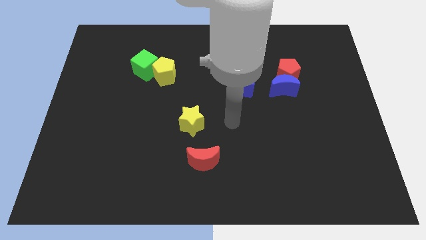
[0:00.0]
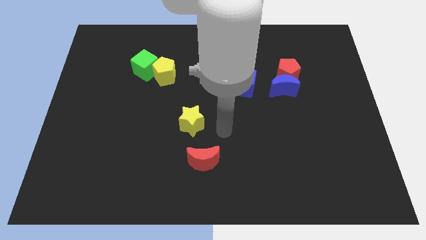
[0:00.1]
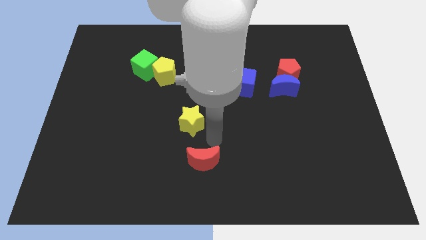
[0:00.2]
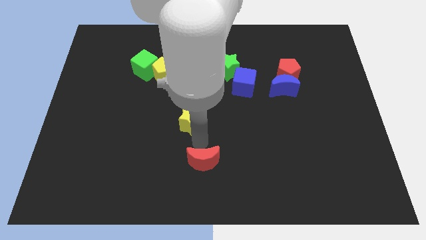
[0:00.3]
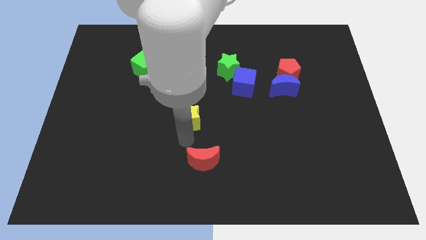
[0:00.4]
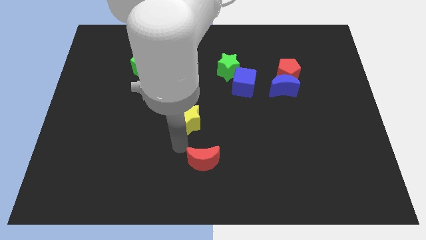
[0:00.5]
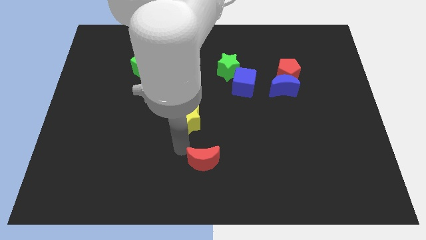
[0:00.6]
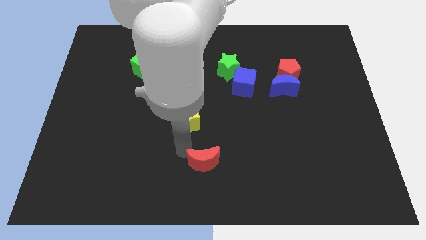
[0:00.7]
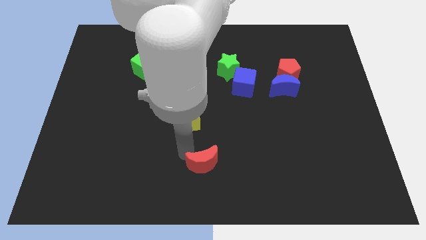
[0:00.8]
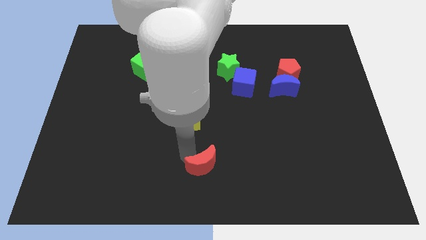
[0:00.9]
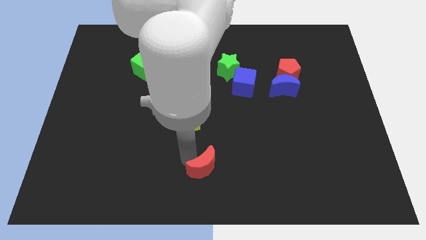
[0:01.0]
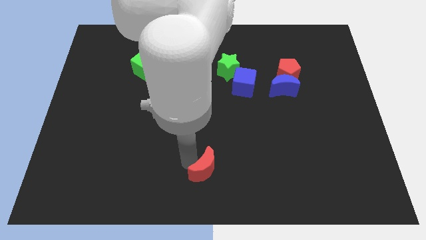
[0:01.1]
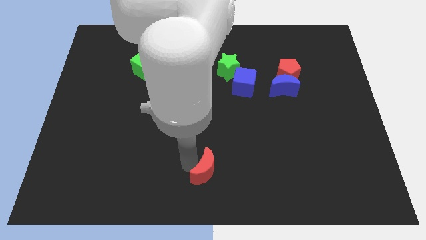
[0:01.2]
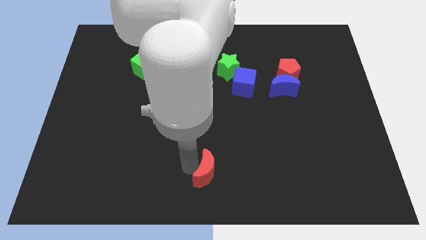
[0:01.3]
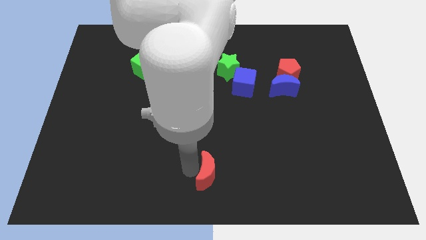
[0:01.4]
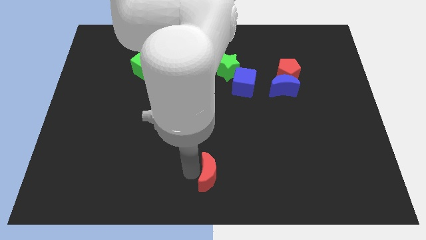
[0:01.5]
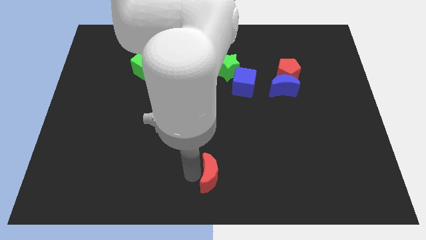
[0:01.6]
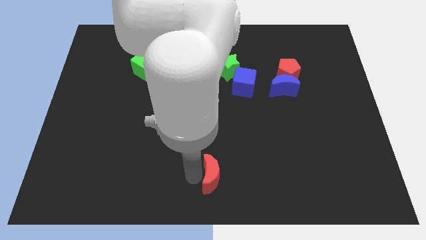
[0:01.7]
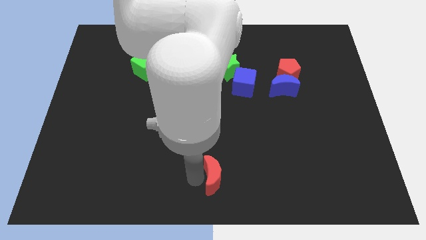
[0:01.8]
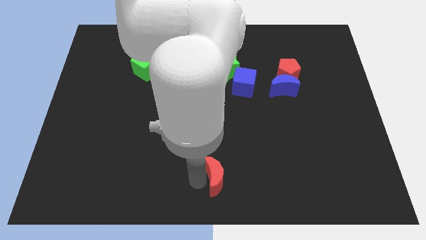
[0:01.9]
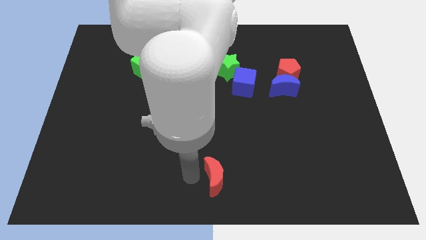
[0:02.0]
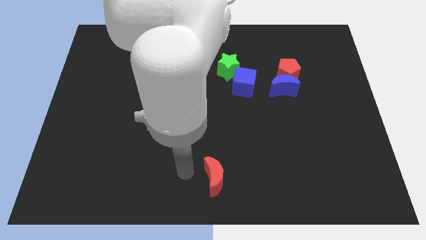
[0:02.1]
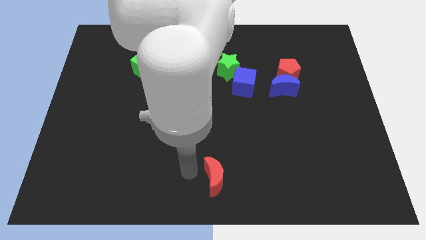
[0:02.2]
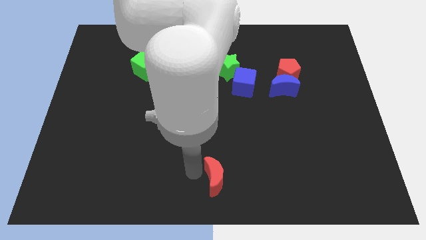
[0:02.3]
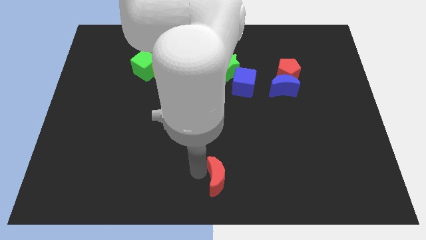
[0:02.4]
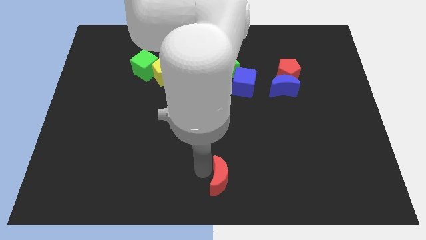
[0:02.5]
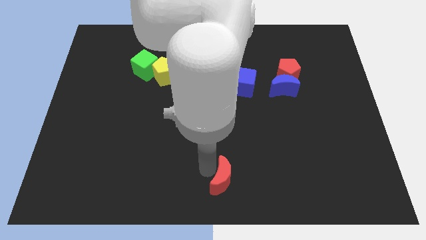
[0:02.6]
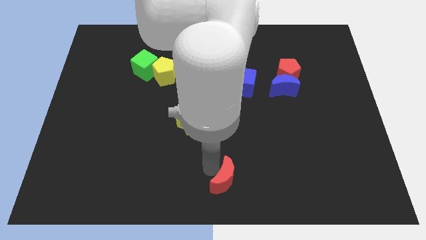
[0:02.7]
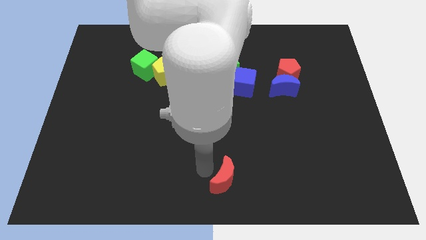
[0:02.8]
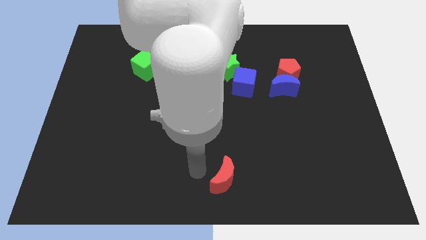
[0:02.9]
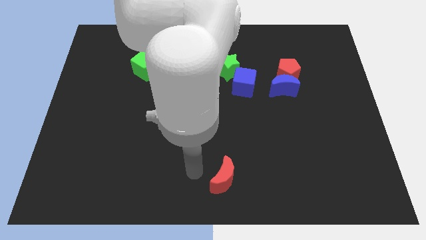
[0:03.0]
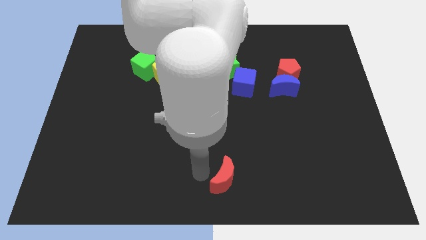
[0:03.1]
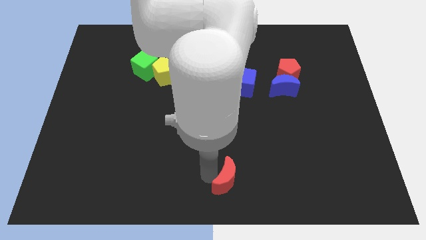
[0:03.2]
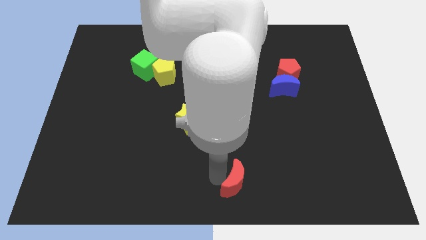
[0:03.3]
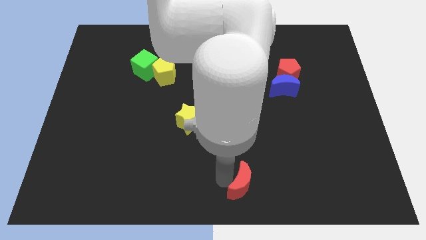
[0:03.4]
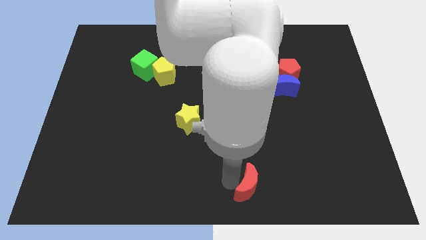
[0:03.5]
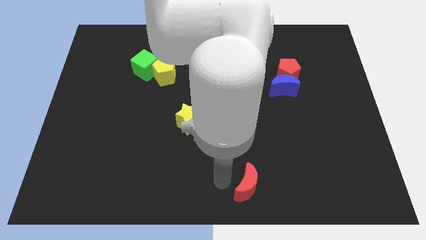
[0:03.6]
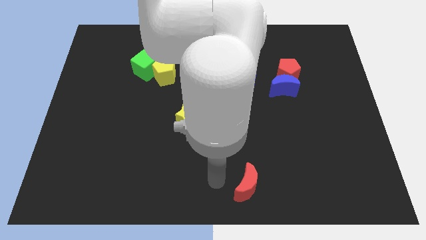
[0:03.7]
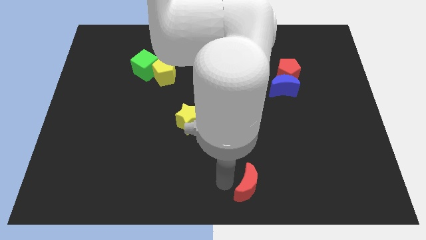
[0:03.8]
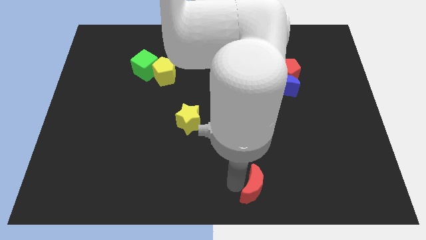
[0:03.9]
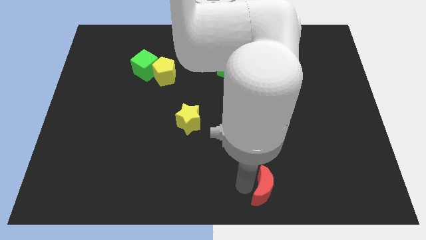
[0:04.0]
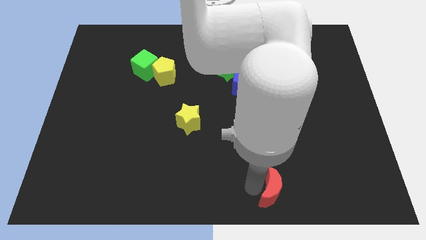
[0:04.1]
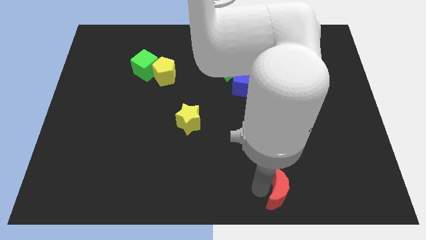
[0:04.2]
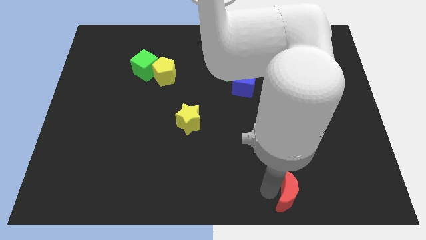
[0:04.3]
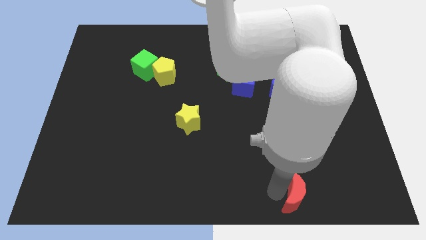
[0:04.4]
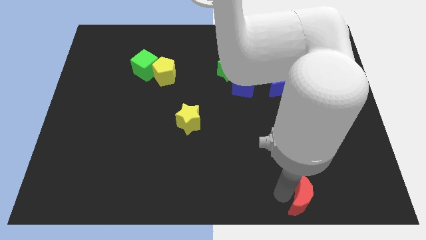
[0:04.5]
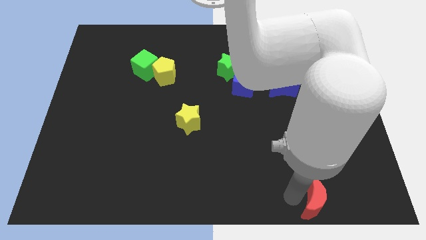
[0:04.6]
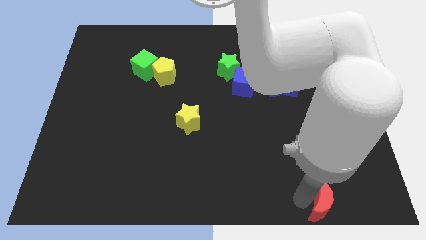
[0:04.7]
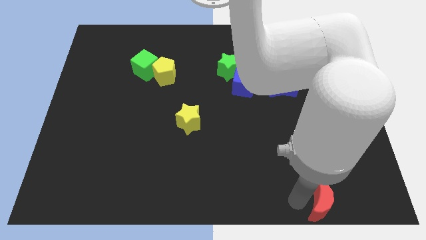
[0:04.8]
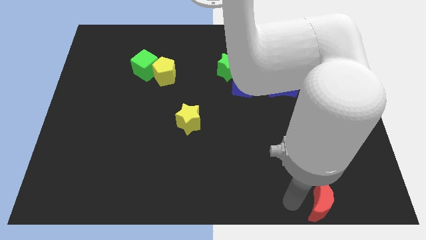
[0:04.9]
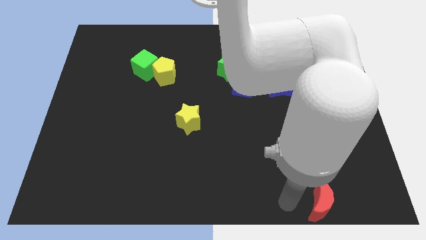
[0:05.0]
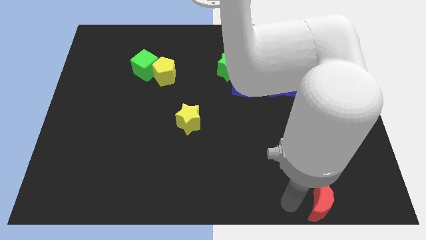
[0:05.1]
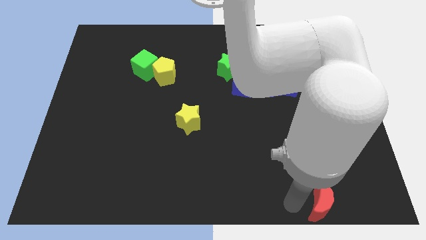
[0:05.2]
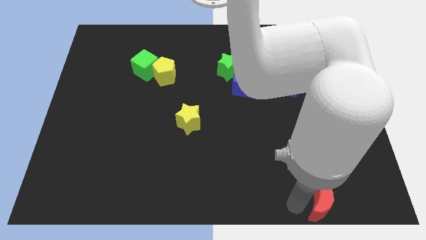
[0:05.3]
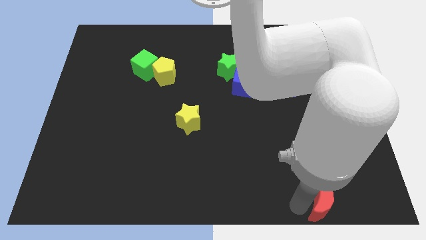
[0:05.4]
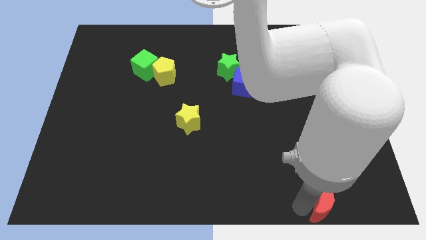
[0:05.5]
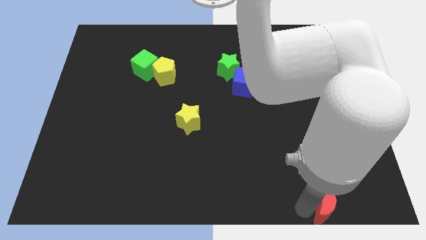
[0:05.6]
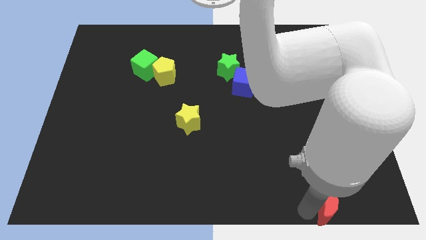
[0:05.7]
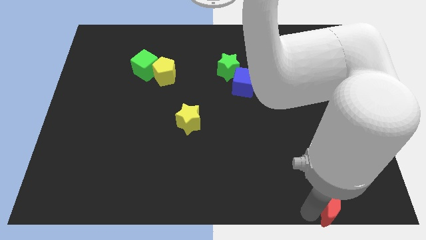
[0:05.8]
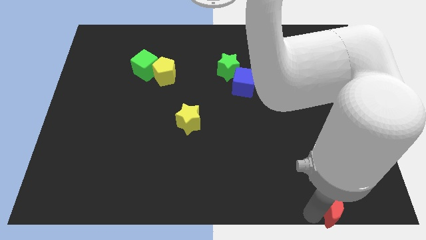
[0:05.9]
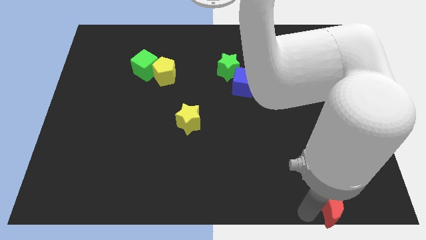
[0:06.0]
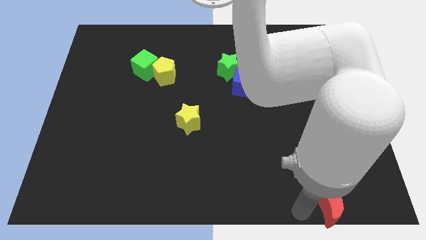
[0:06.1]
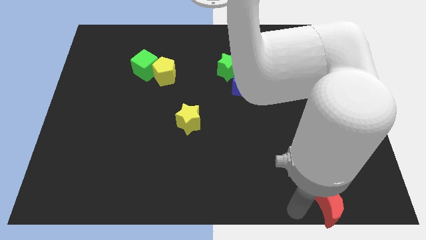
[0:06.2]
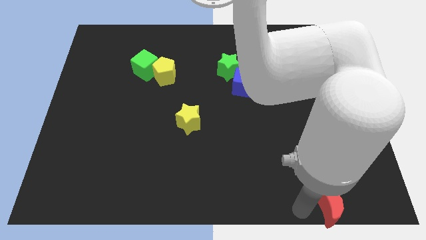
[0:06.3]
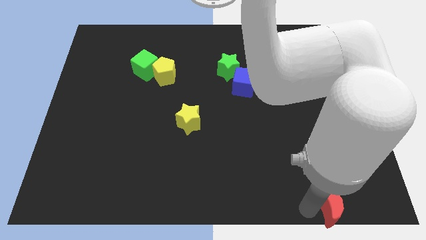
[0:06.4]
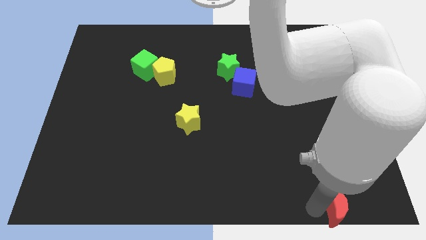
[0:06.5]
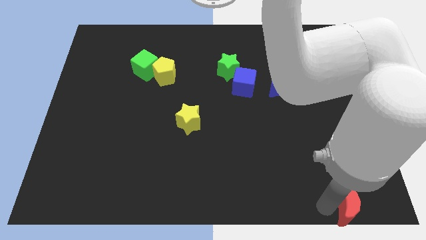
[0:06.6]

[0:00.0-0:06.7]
move the red moon to the bottom right

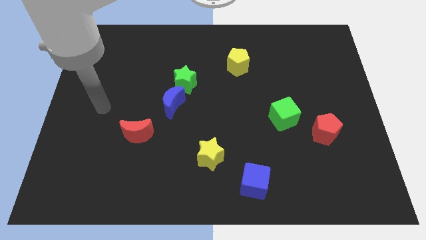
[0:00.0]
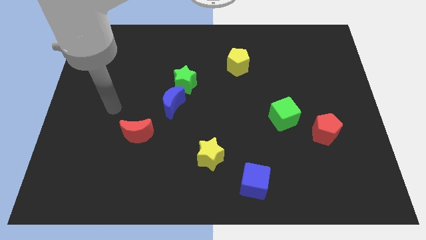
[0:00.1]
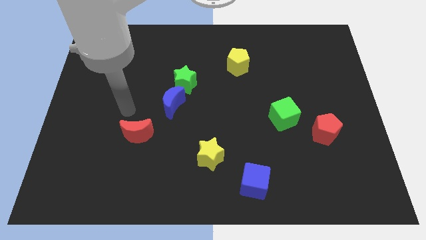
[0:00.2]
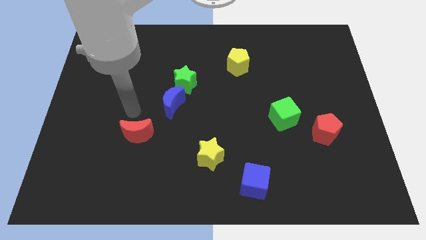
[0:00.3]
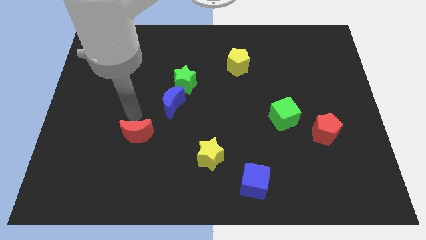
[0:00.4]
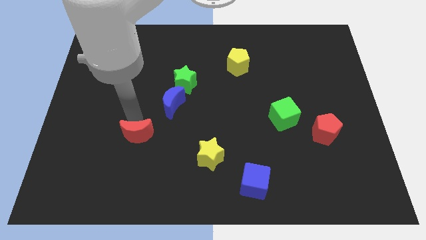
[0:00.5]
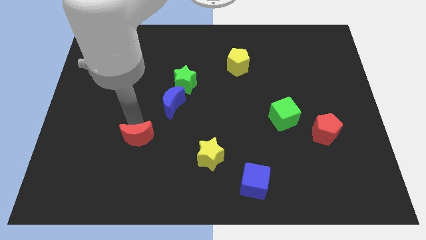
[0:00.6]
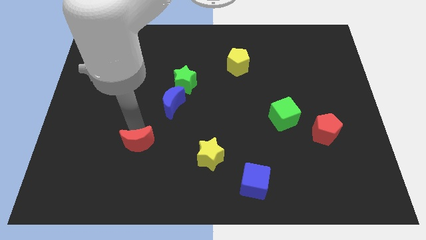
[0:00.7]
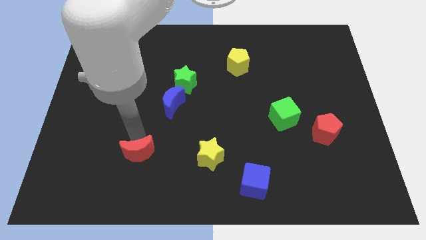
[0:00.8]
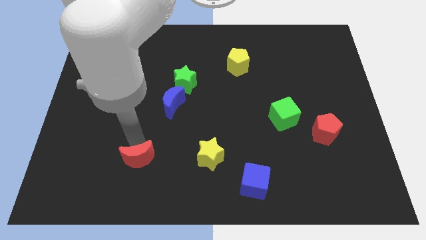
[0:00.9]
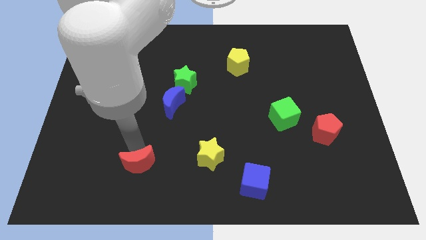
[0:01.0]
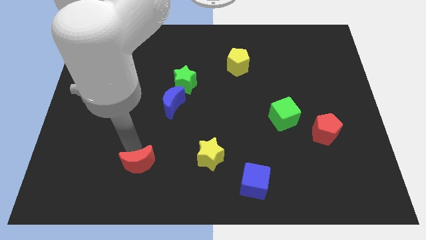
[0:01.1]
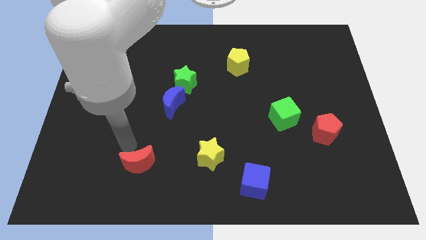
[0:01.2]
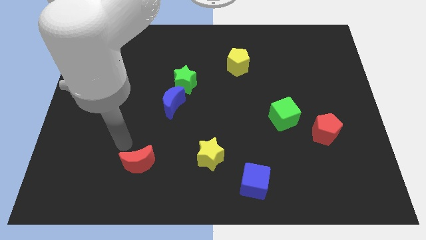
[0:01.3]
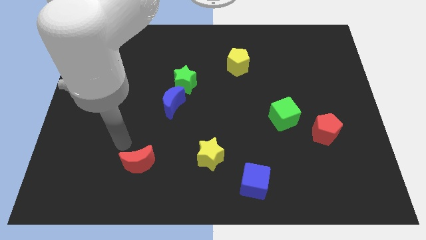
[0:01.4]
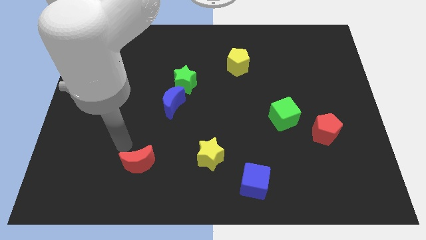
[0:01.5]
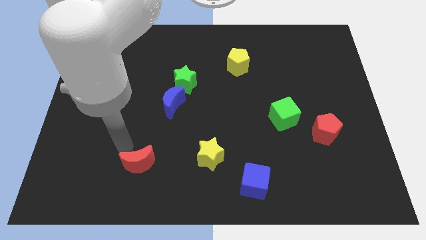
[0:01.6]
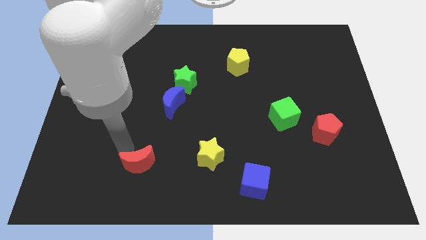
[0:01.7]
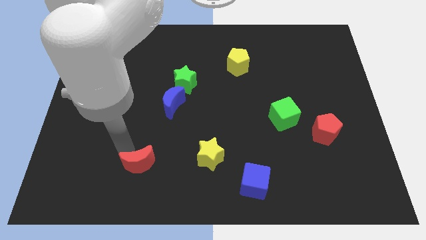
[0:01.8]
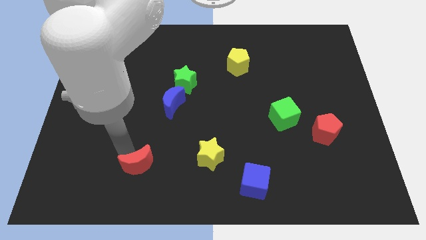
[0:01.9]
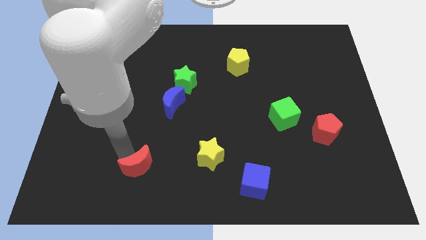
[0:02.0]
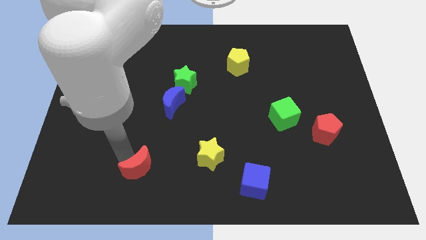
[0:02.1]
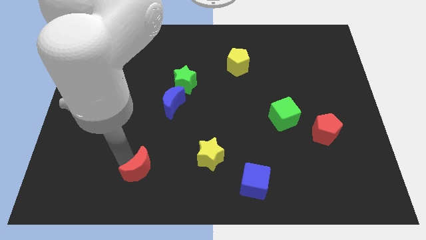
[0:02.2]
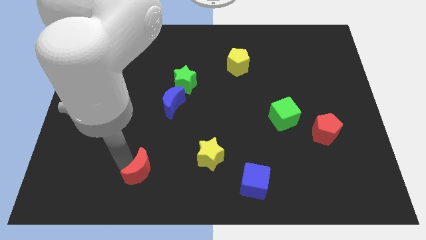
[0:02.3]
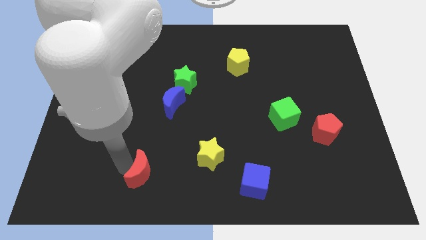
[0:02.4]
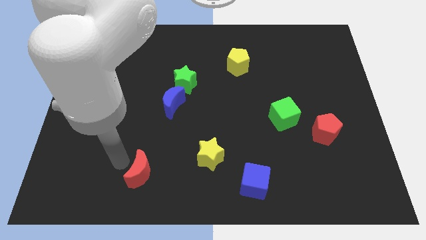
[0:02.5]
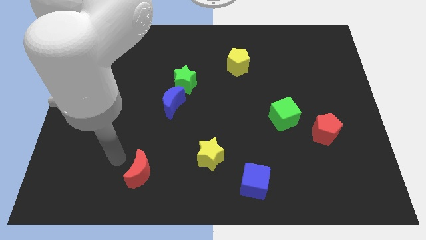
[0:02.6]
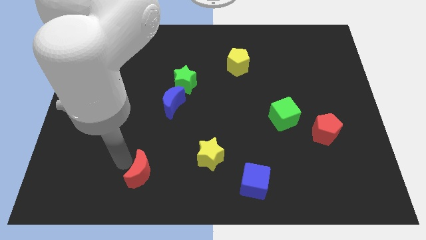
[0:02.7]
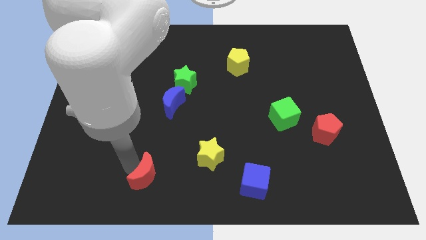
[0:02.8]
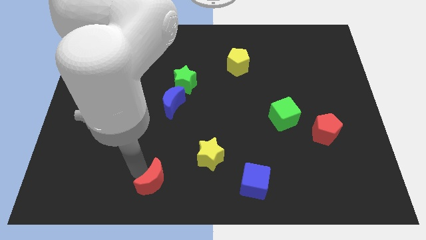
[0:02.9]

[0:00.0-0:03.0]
push the red moon to the bottom
